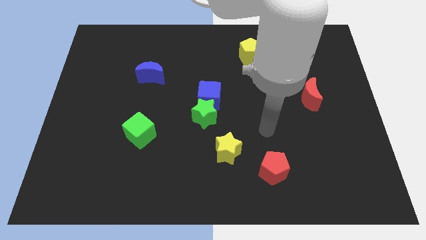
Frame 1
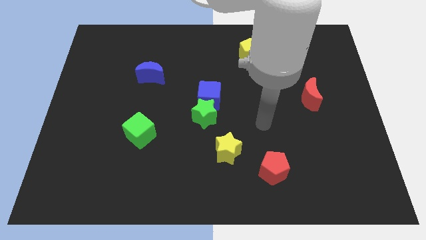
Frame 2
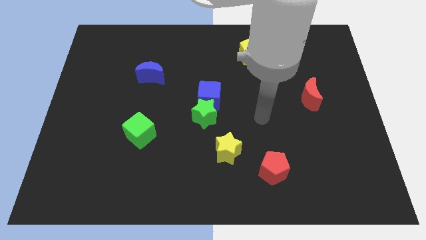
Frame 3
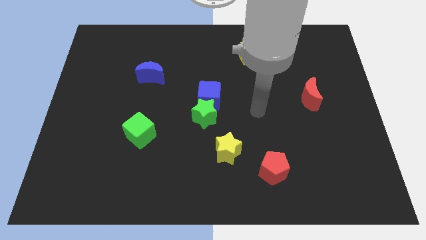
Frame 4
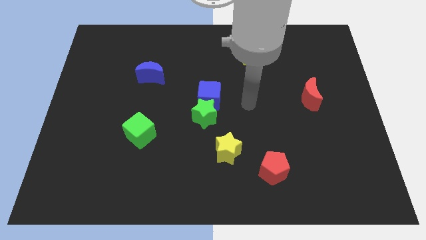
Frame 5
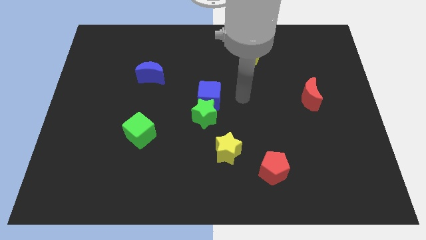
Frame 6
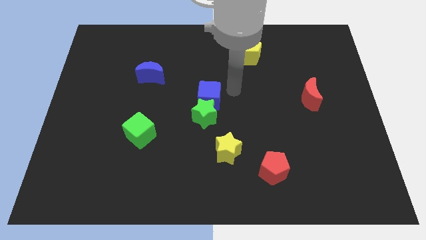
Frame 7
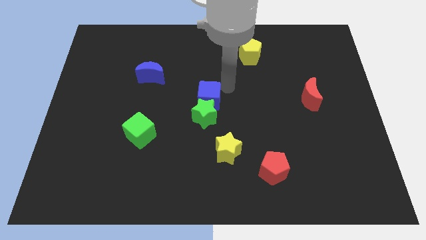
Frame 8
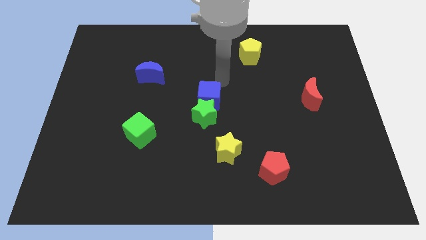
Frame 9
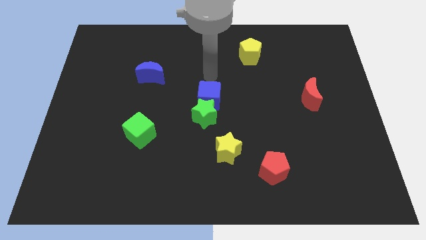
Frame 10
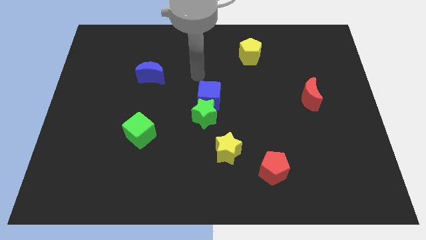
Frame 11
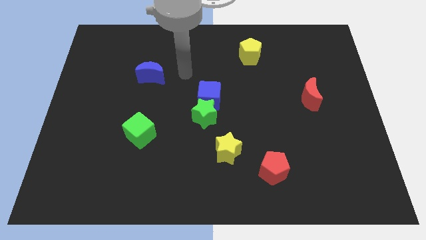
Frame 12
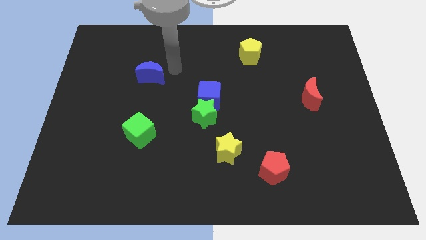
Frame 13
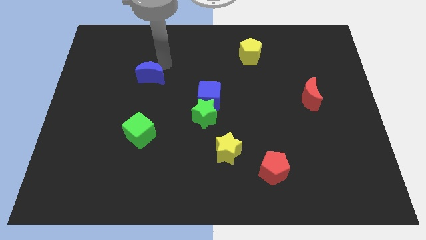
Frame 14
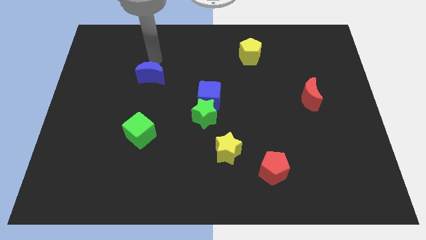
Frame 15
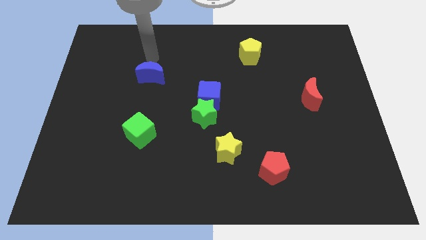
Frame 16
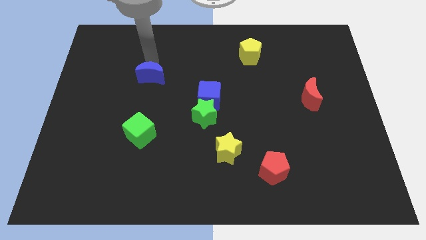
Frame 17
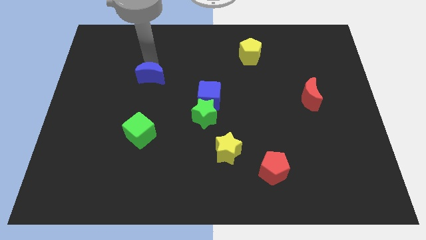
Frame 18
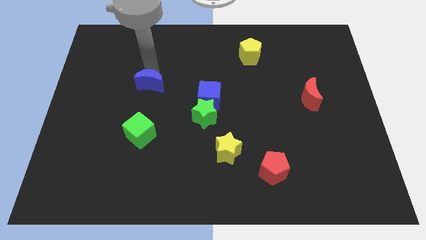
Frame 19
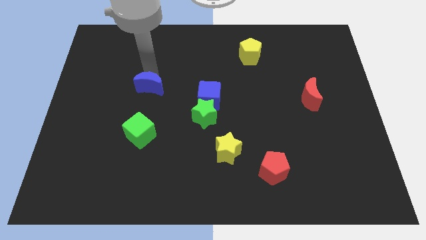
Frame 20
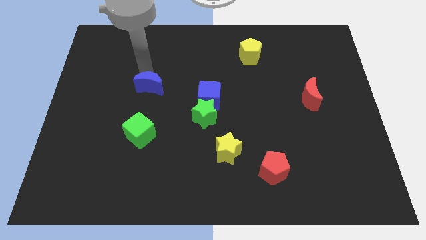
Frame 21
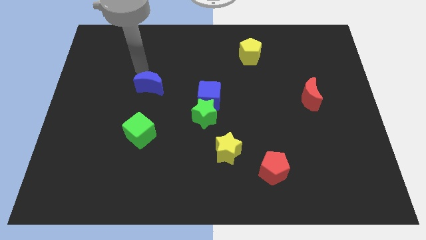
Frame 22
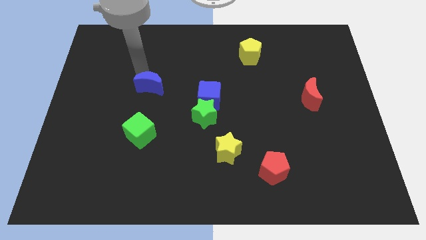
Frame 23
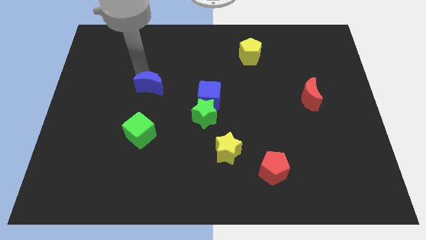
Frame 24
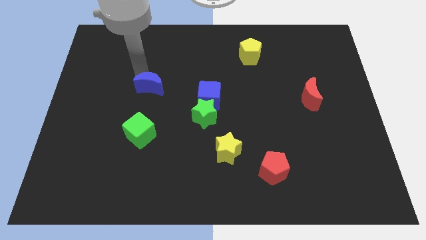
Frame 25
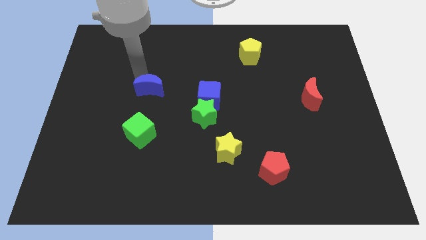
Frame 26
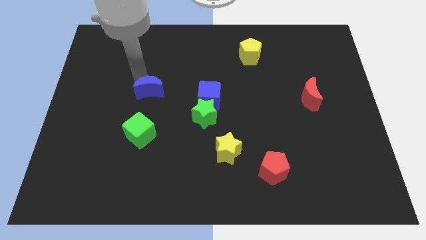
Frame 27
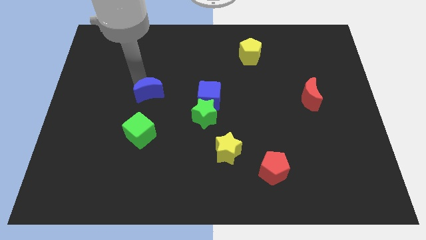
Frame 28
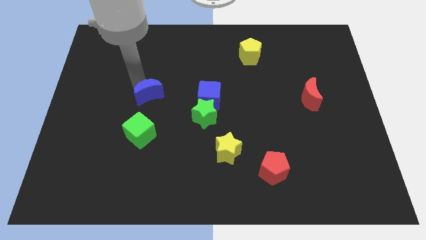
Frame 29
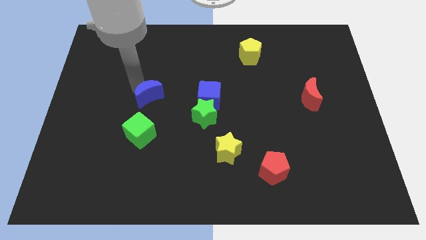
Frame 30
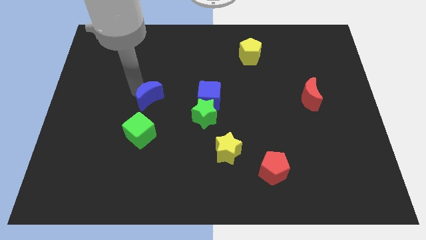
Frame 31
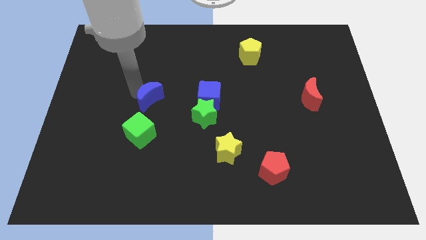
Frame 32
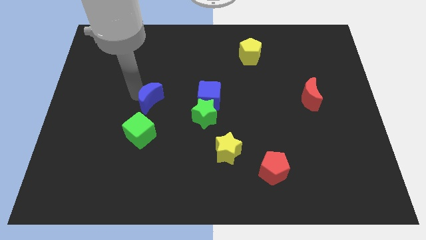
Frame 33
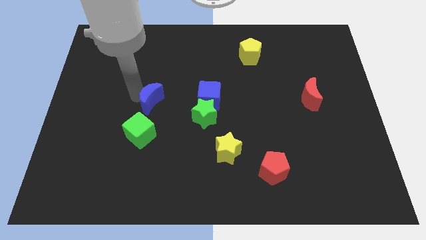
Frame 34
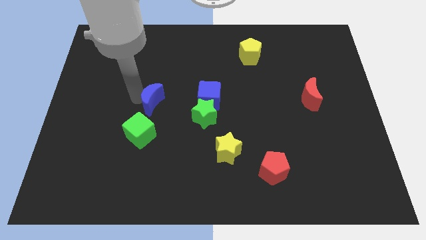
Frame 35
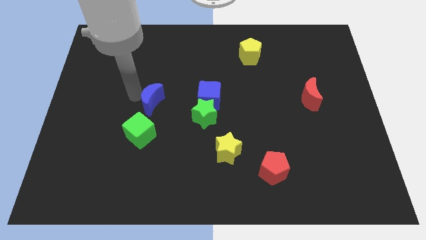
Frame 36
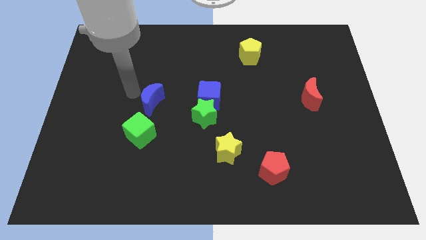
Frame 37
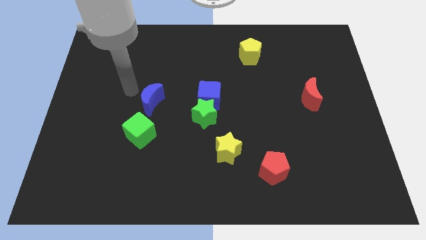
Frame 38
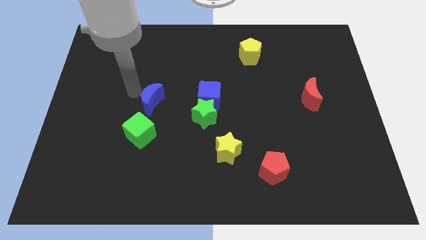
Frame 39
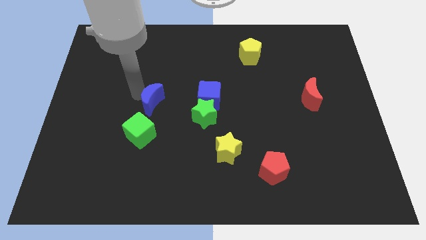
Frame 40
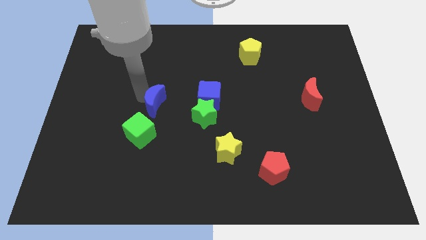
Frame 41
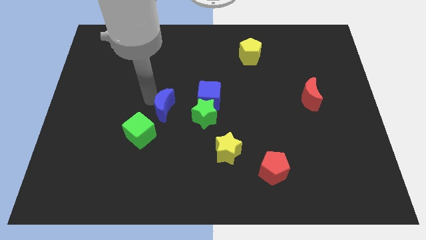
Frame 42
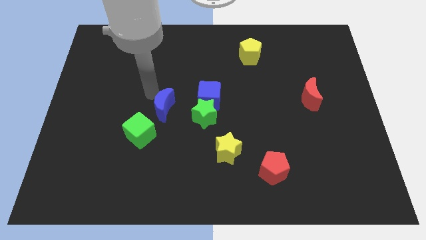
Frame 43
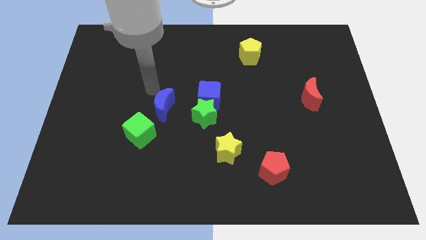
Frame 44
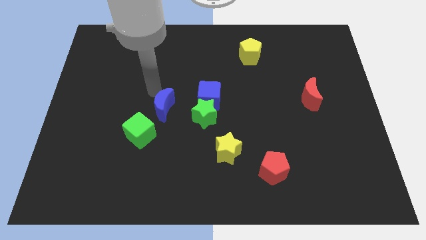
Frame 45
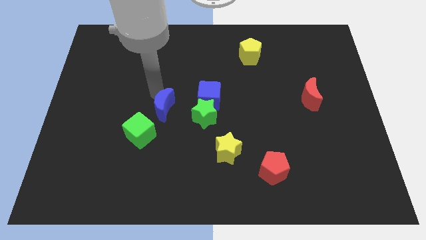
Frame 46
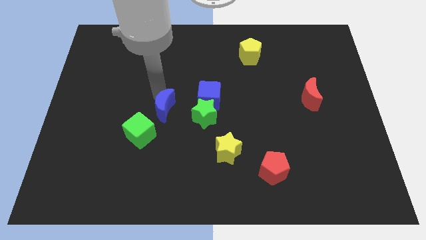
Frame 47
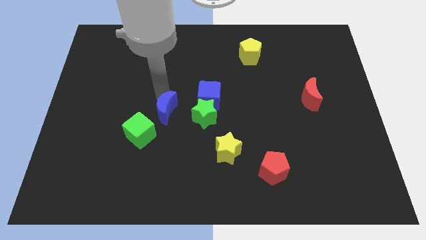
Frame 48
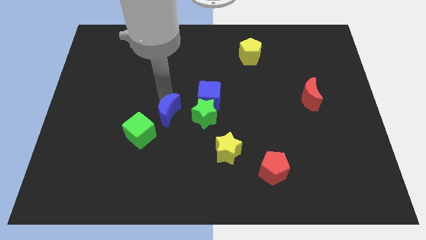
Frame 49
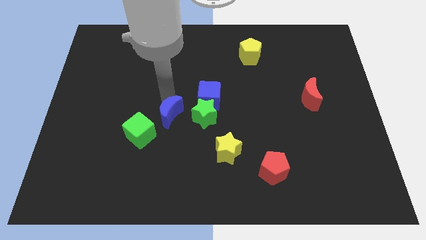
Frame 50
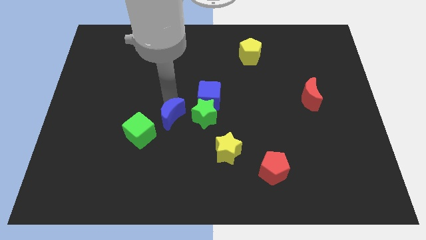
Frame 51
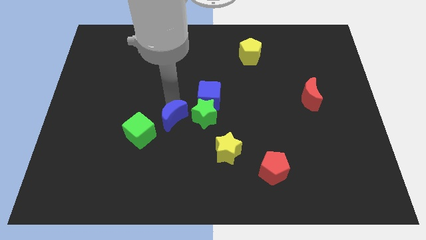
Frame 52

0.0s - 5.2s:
move the blue moon to the bottom left side of the green star

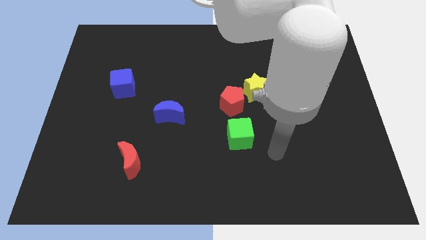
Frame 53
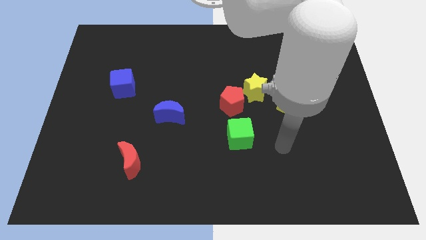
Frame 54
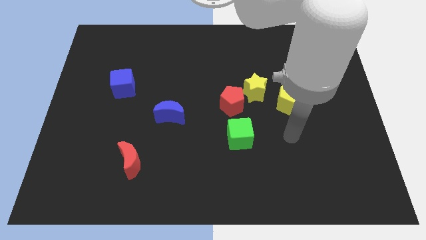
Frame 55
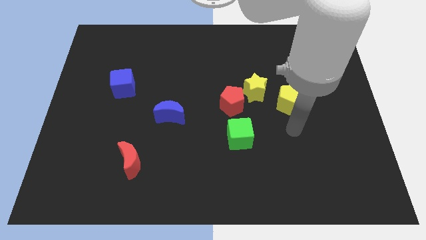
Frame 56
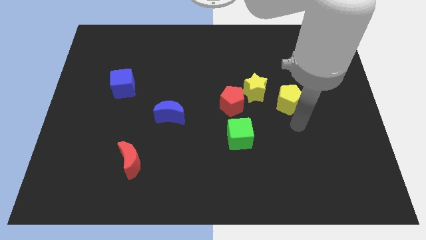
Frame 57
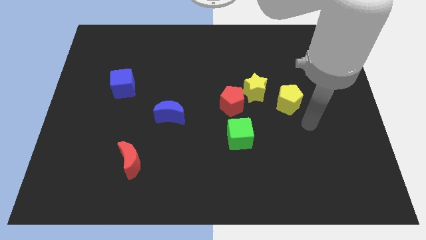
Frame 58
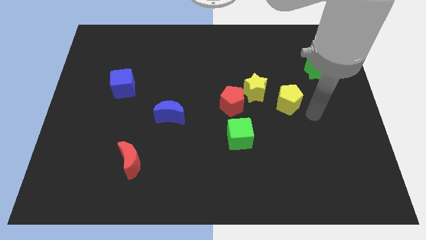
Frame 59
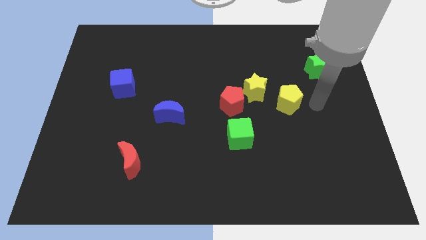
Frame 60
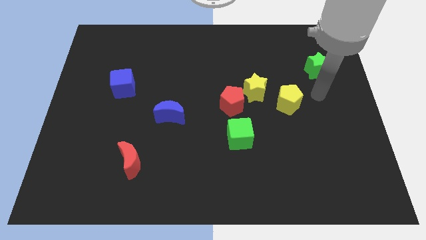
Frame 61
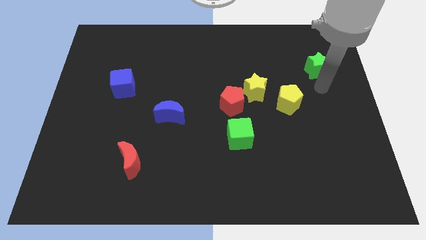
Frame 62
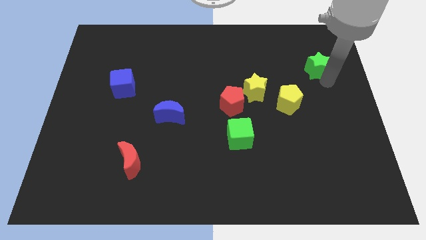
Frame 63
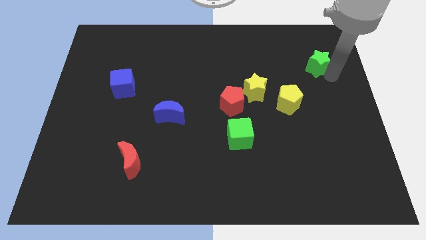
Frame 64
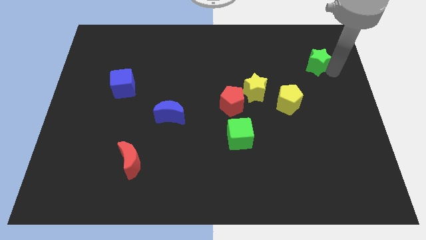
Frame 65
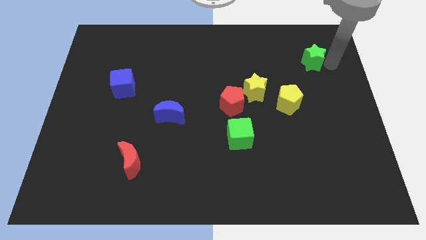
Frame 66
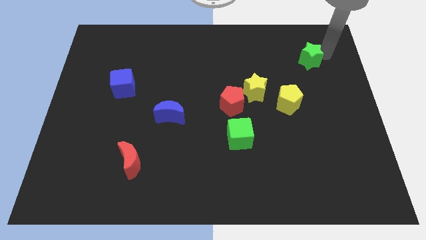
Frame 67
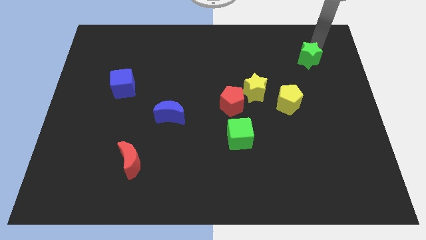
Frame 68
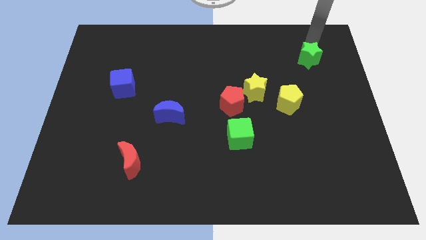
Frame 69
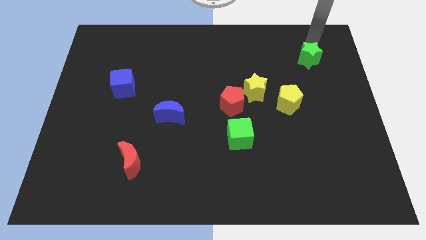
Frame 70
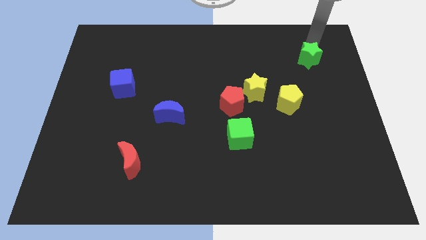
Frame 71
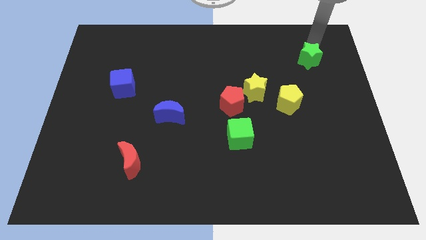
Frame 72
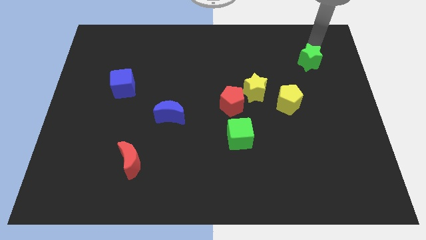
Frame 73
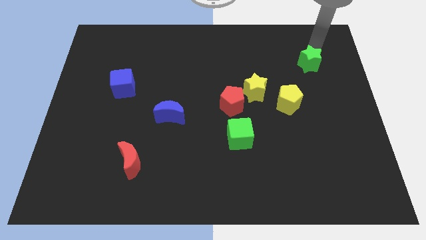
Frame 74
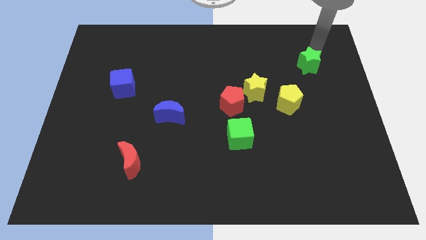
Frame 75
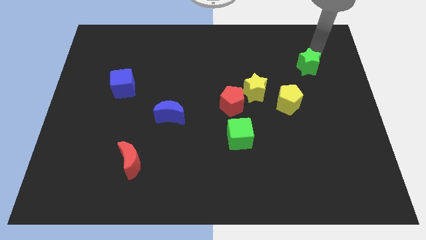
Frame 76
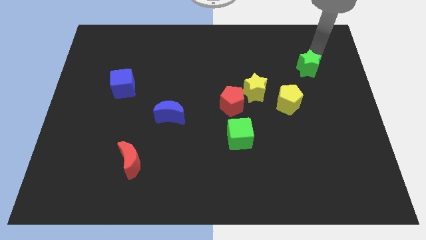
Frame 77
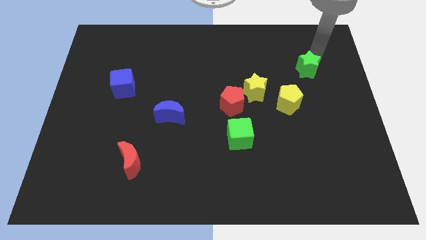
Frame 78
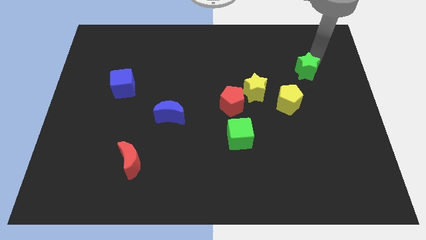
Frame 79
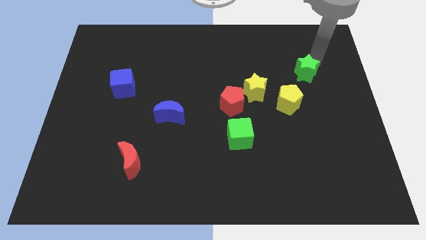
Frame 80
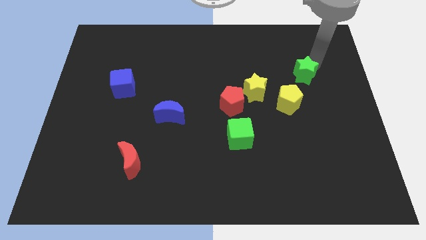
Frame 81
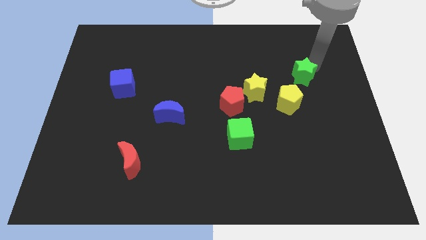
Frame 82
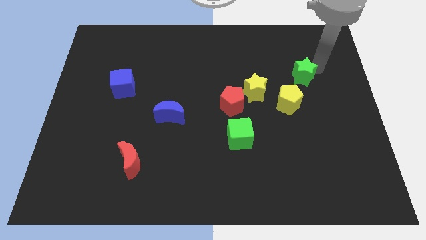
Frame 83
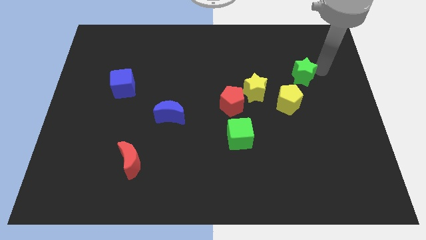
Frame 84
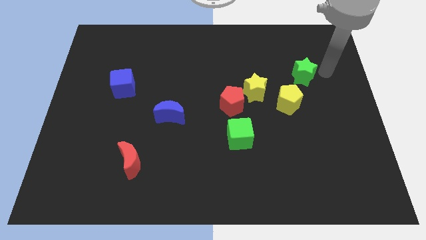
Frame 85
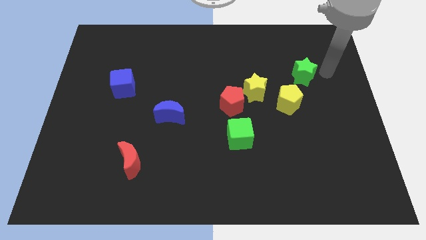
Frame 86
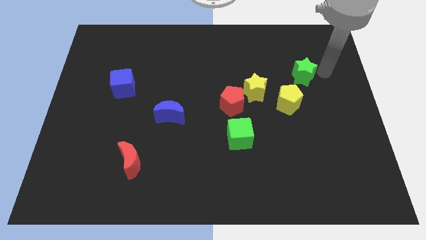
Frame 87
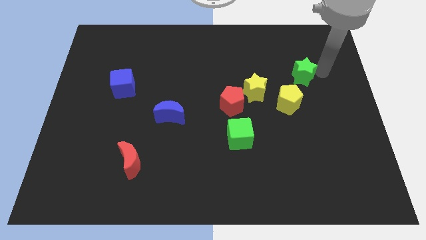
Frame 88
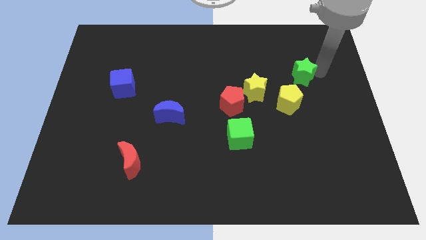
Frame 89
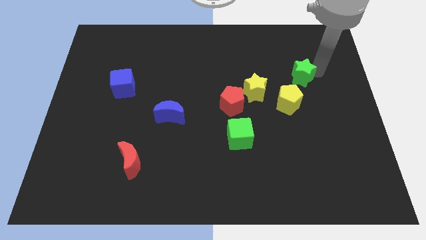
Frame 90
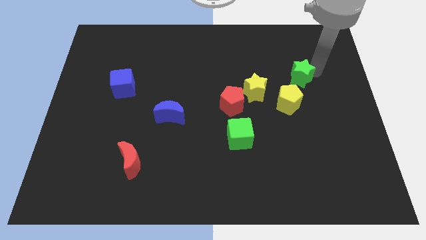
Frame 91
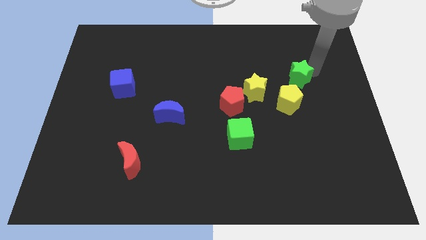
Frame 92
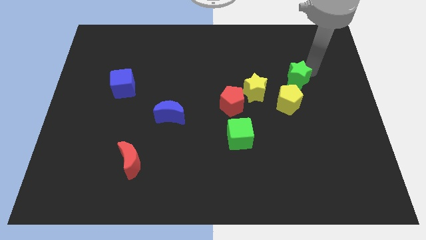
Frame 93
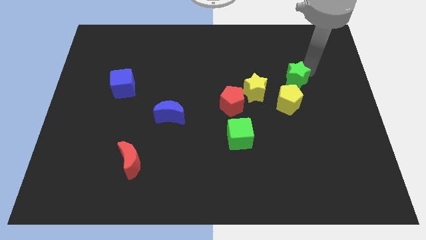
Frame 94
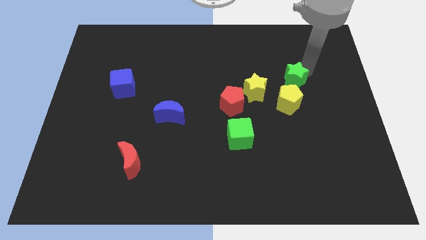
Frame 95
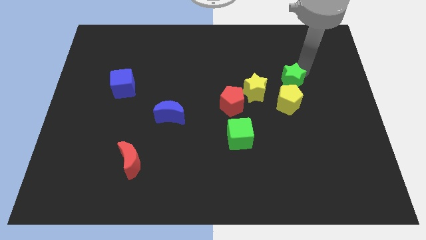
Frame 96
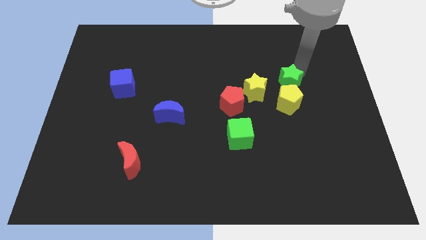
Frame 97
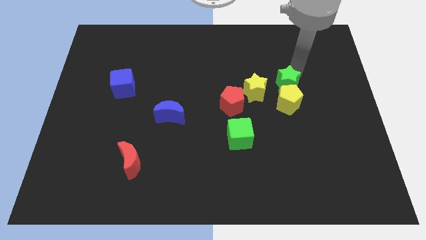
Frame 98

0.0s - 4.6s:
push the green star to the top left of the yellow pentagon
